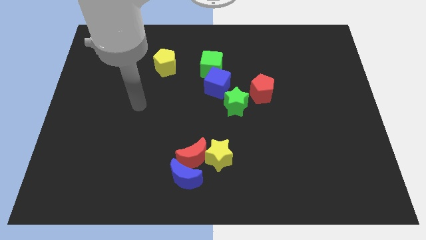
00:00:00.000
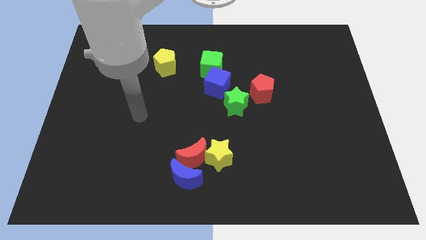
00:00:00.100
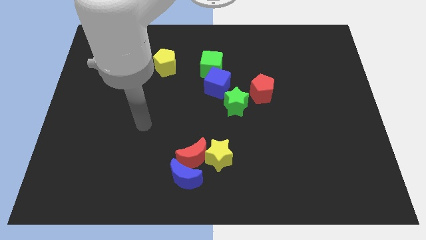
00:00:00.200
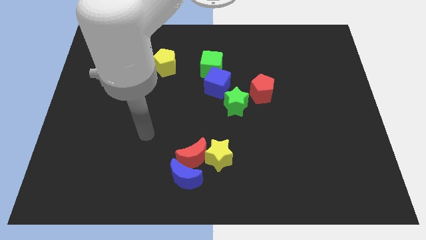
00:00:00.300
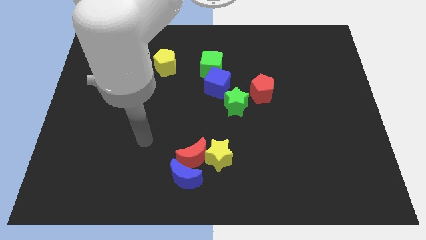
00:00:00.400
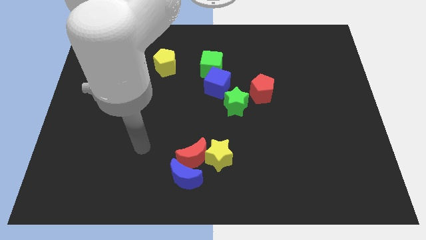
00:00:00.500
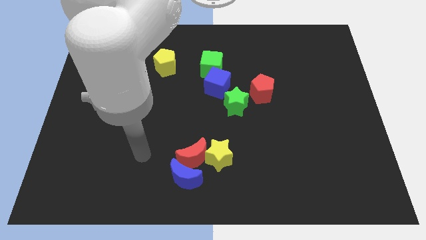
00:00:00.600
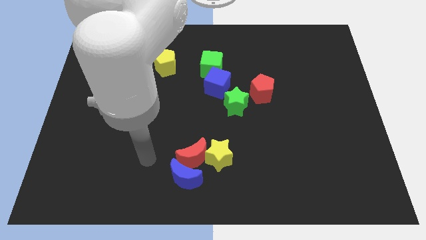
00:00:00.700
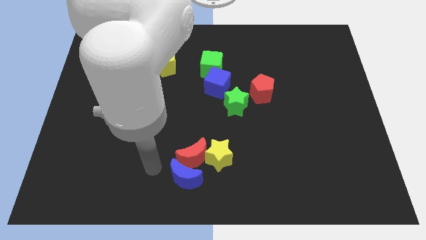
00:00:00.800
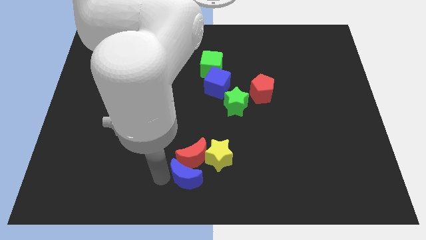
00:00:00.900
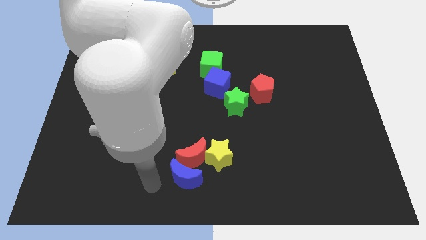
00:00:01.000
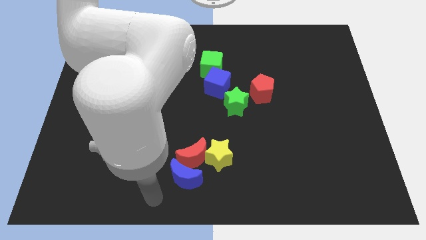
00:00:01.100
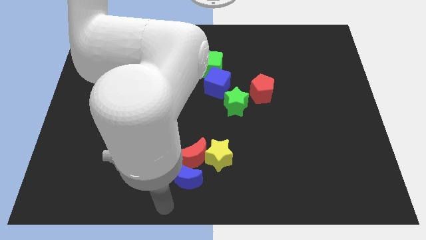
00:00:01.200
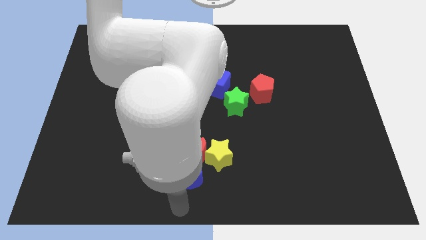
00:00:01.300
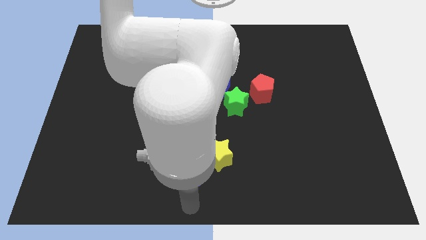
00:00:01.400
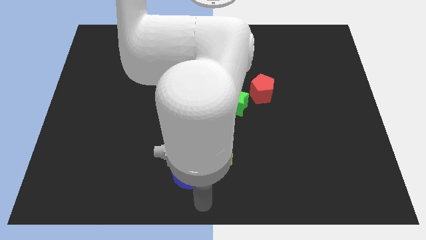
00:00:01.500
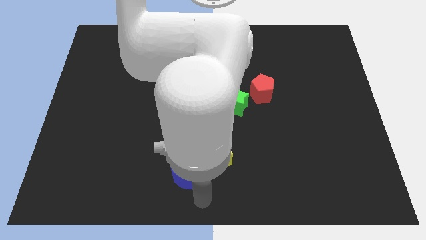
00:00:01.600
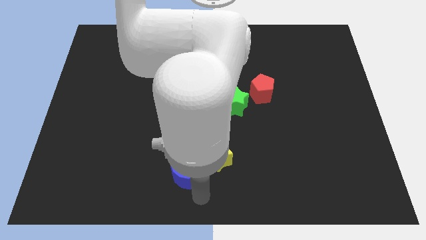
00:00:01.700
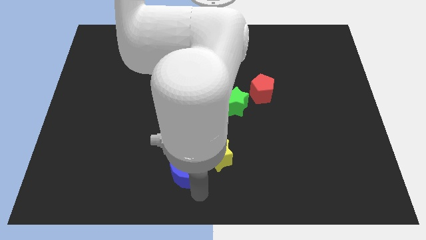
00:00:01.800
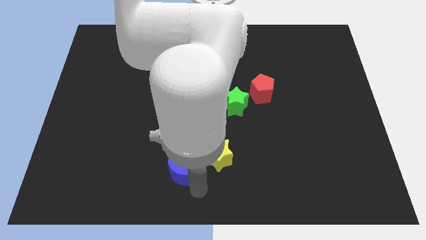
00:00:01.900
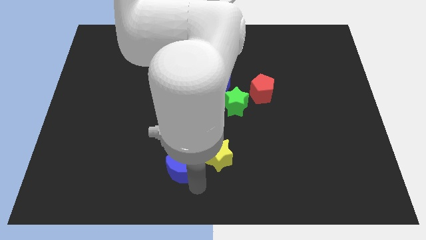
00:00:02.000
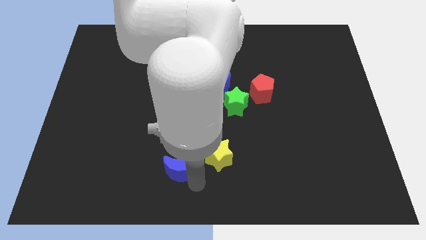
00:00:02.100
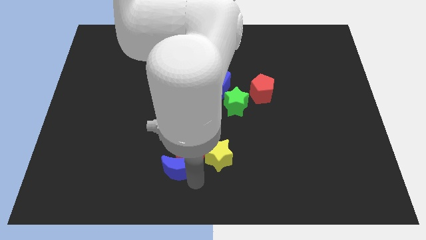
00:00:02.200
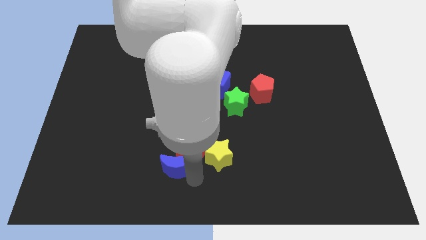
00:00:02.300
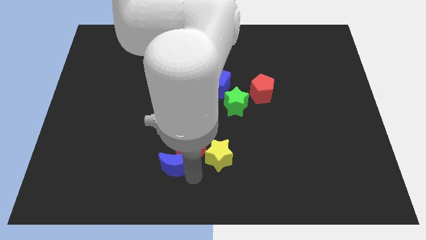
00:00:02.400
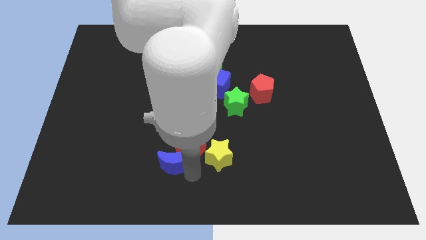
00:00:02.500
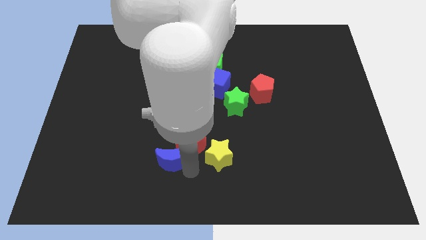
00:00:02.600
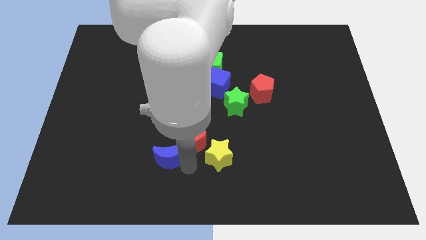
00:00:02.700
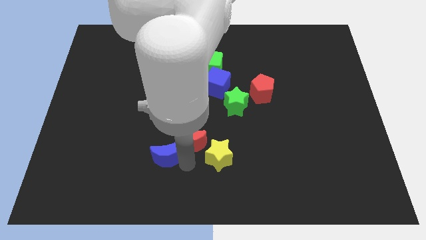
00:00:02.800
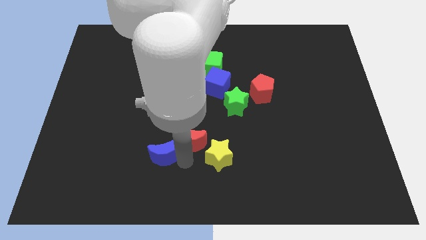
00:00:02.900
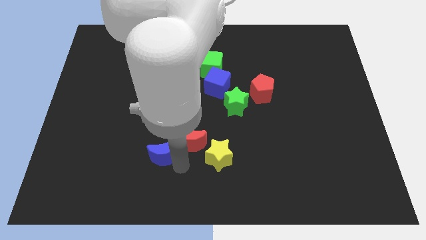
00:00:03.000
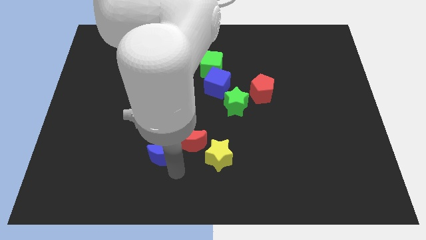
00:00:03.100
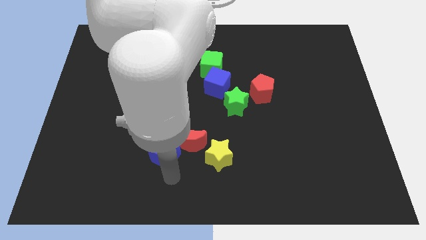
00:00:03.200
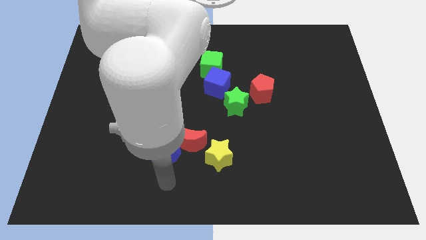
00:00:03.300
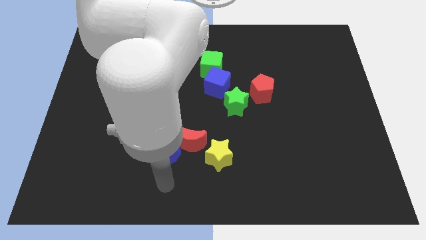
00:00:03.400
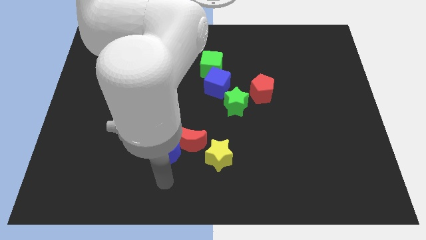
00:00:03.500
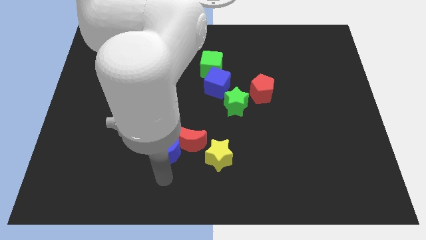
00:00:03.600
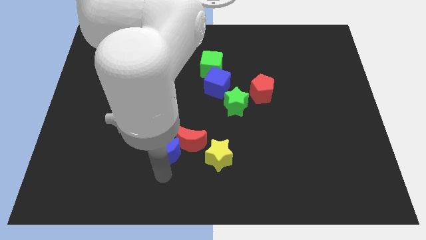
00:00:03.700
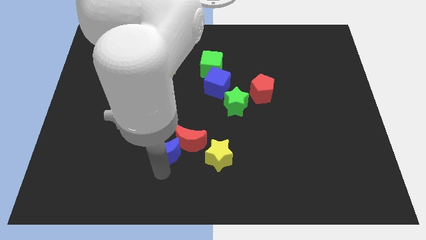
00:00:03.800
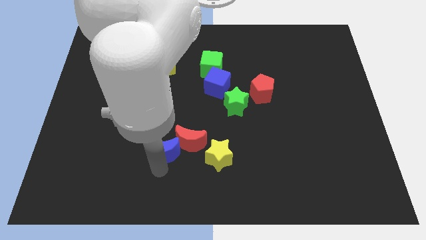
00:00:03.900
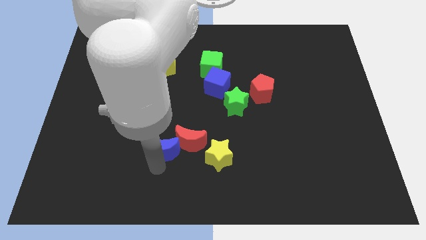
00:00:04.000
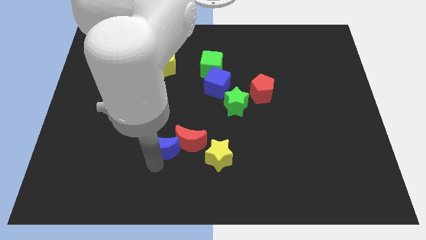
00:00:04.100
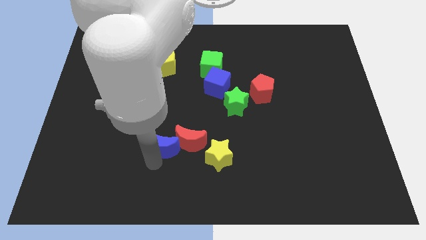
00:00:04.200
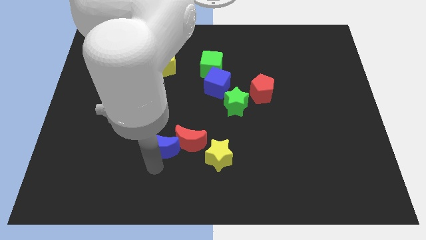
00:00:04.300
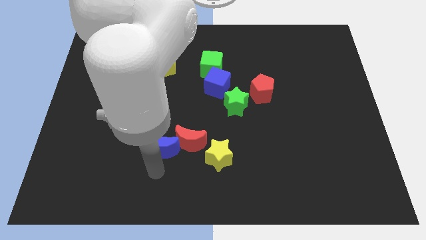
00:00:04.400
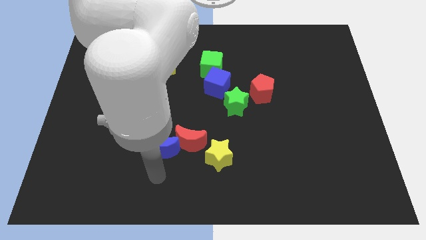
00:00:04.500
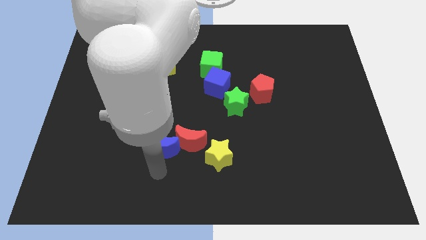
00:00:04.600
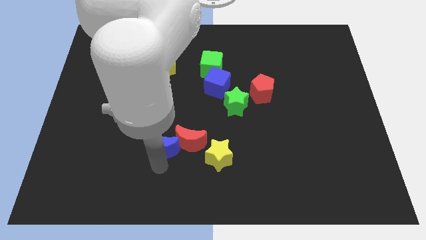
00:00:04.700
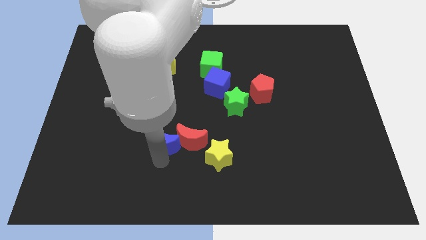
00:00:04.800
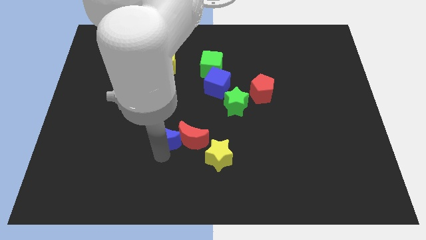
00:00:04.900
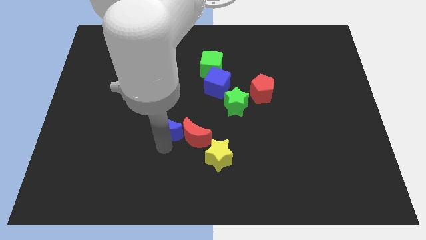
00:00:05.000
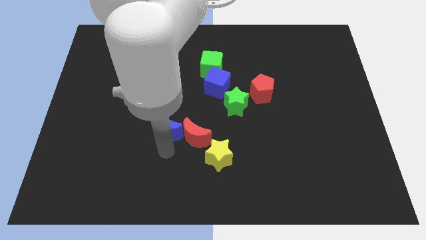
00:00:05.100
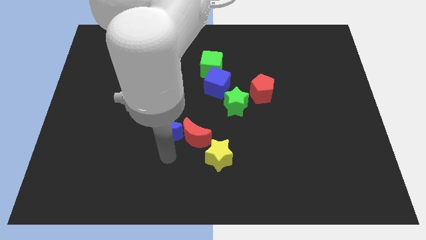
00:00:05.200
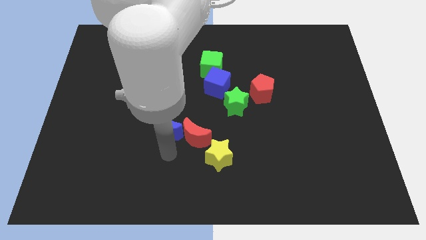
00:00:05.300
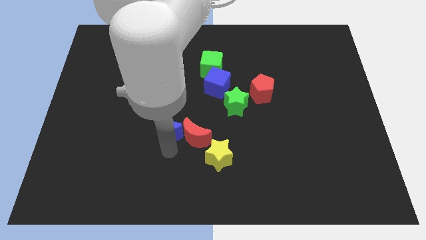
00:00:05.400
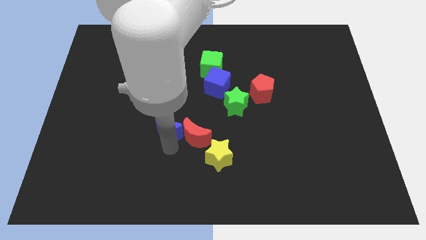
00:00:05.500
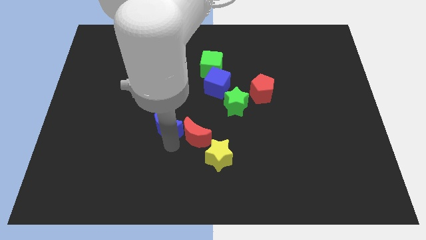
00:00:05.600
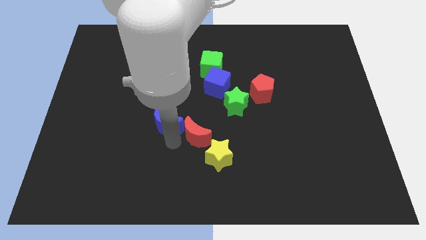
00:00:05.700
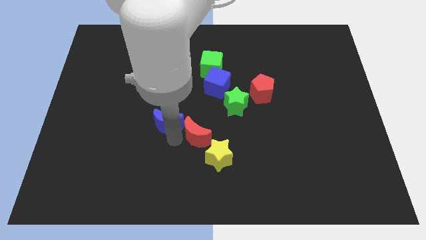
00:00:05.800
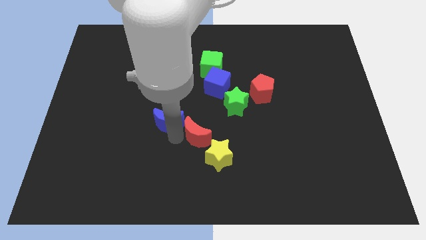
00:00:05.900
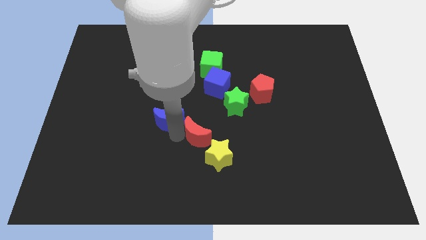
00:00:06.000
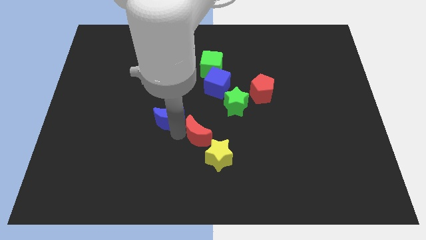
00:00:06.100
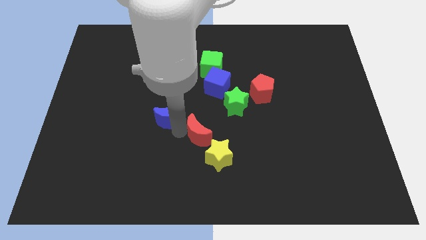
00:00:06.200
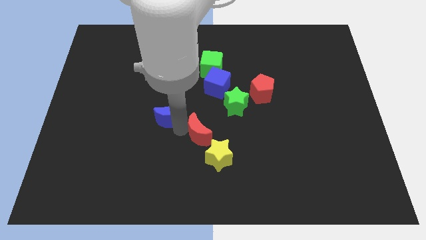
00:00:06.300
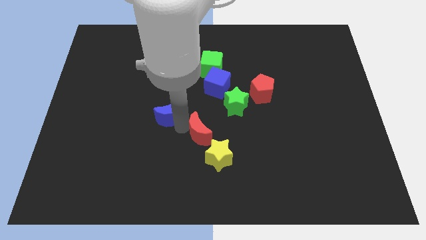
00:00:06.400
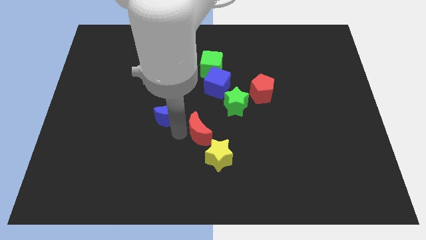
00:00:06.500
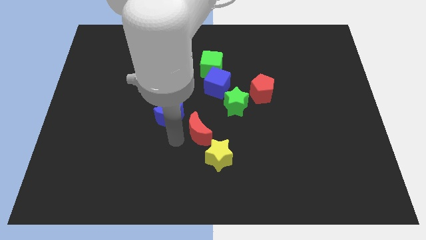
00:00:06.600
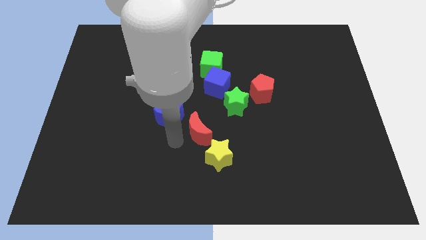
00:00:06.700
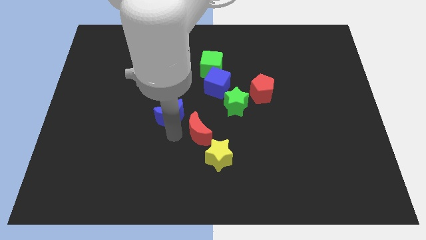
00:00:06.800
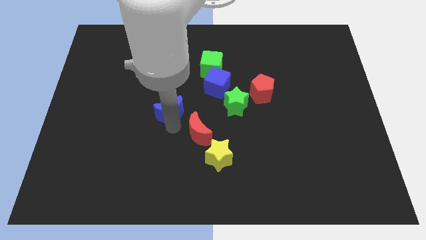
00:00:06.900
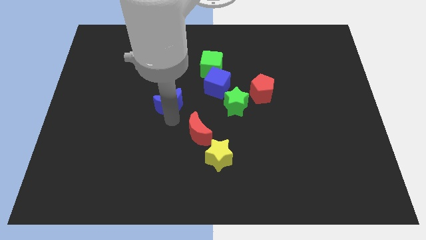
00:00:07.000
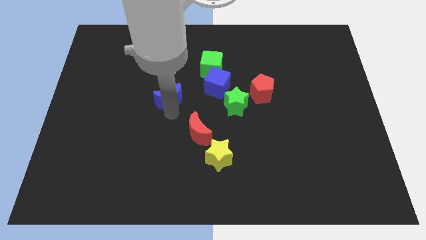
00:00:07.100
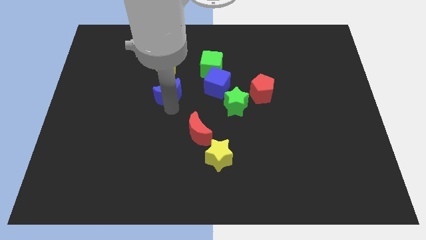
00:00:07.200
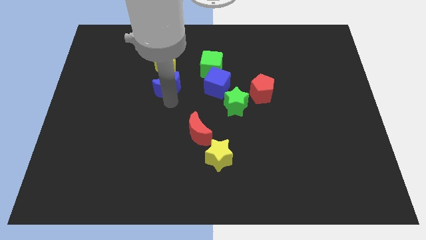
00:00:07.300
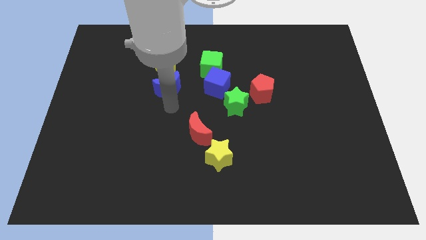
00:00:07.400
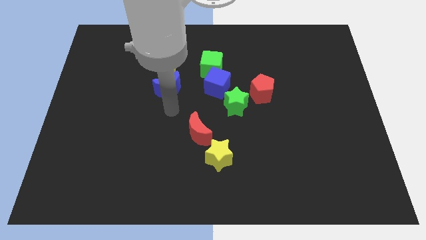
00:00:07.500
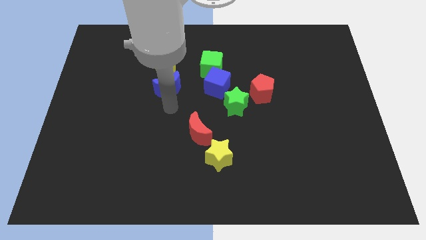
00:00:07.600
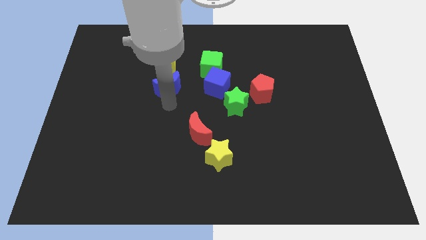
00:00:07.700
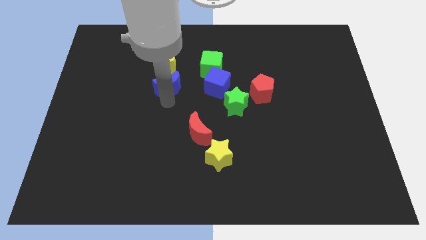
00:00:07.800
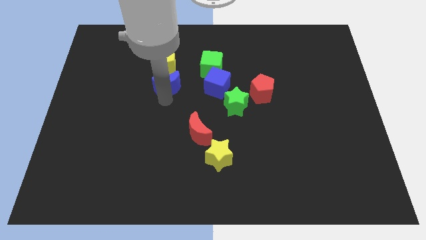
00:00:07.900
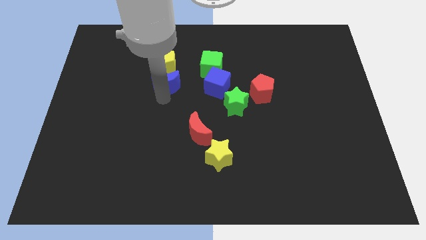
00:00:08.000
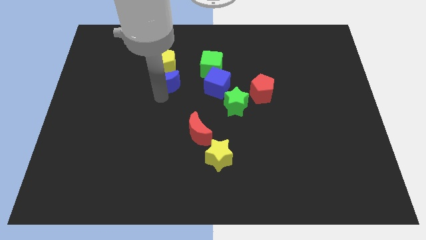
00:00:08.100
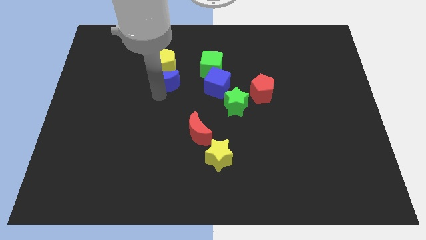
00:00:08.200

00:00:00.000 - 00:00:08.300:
put the blue moon towards the yellow pentagon
